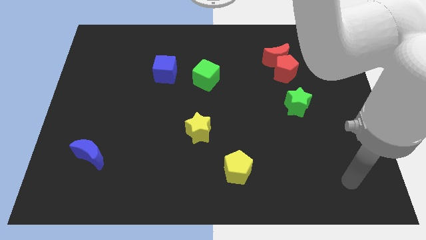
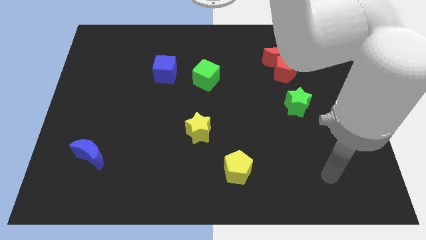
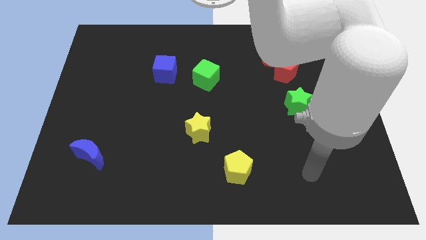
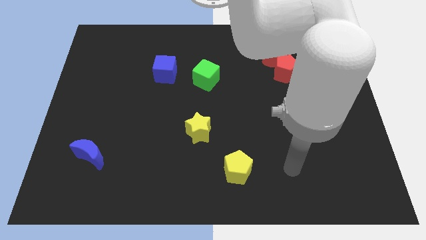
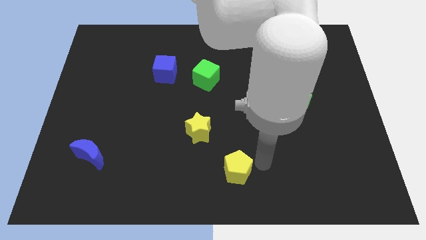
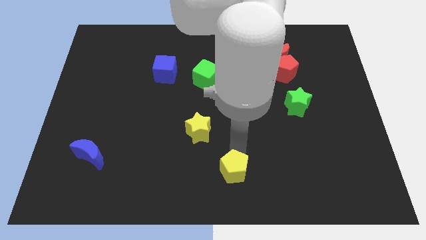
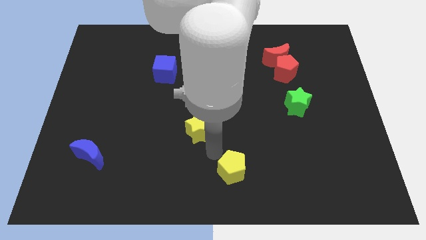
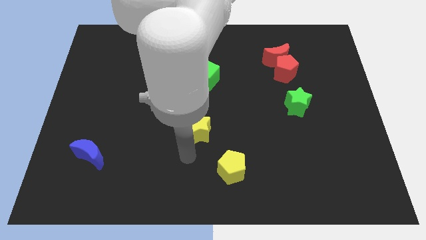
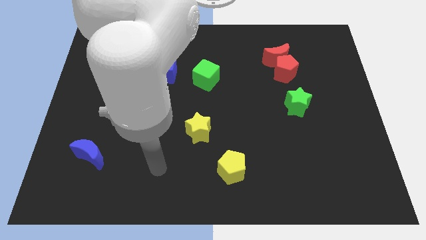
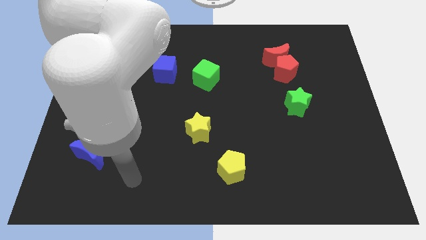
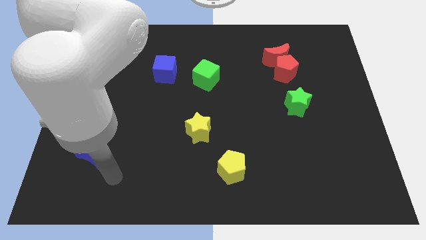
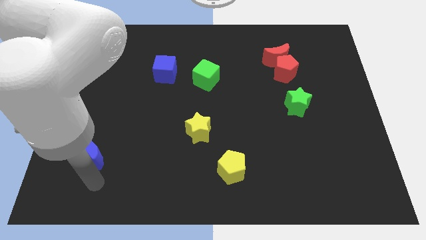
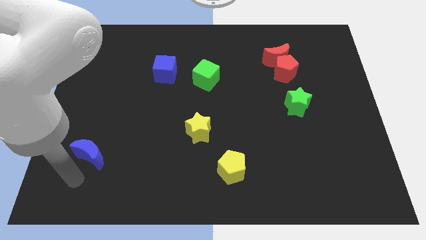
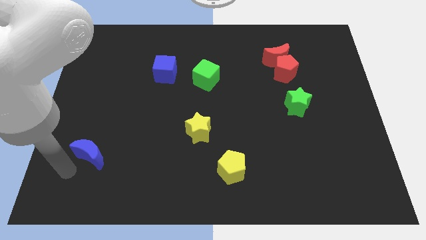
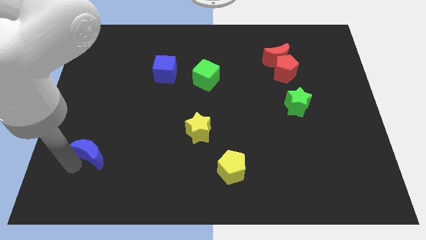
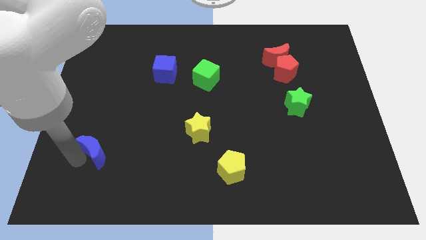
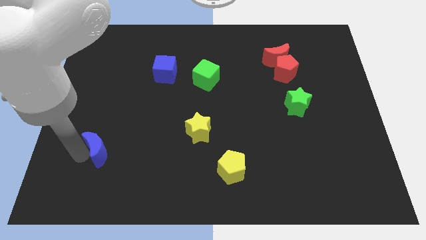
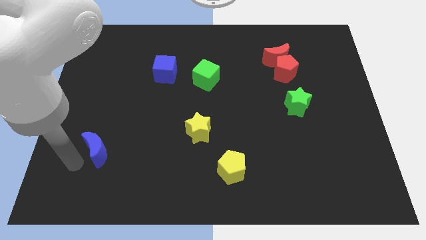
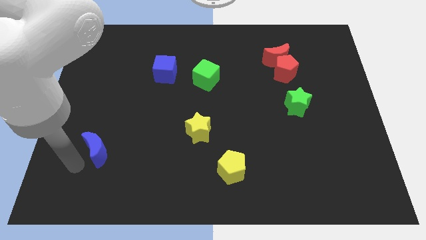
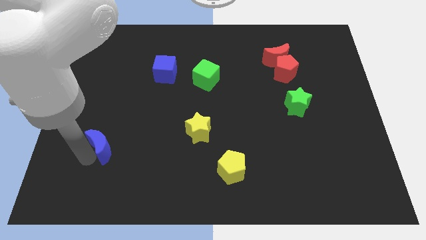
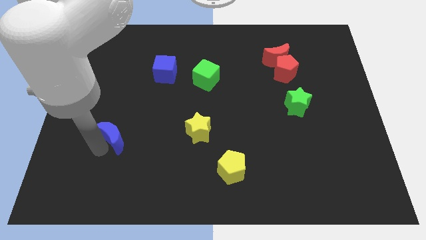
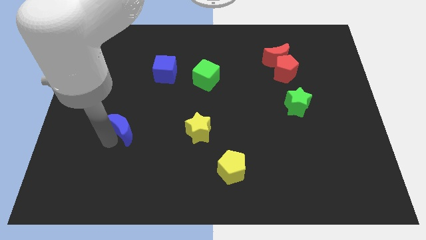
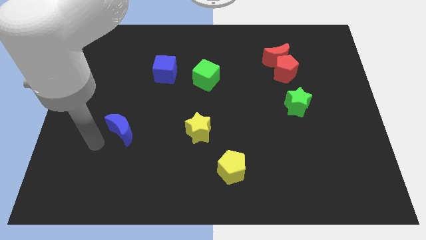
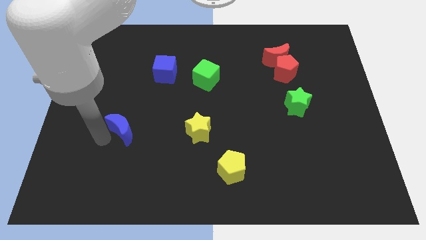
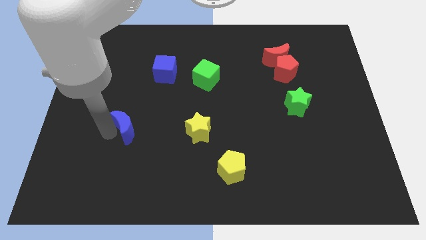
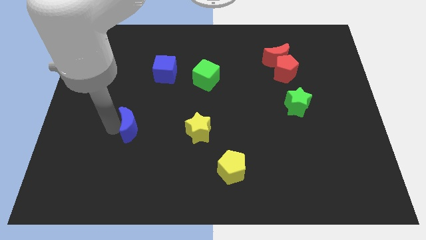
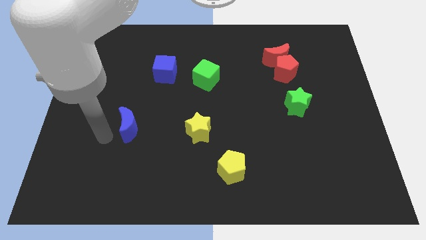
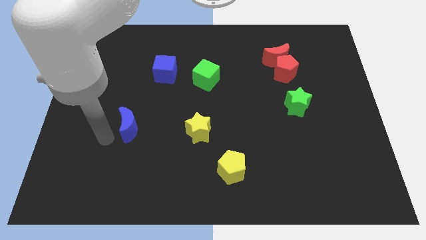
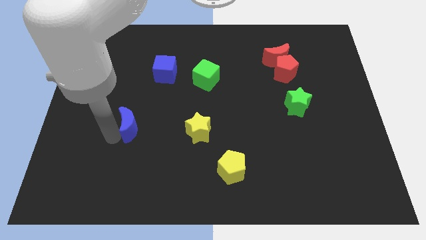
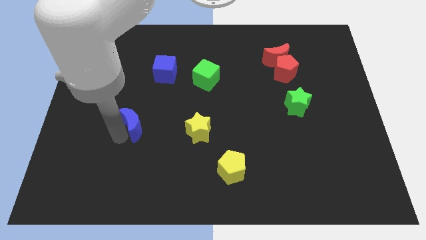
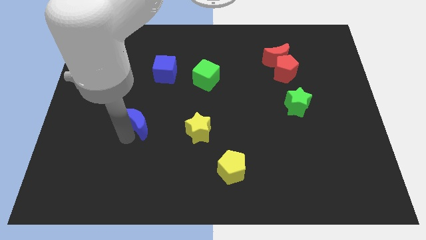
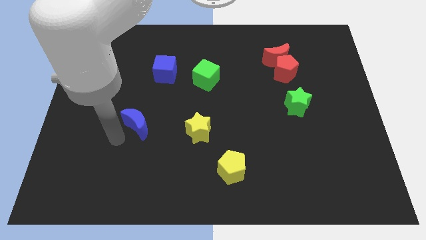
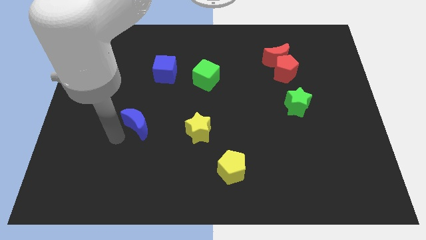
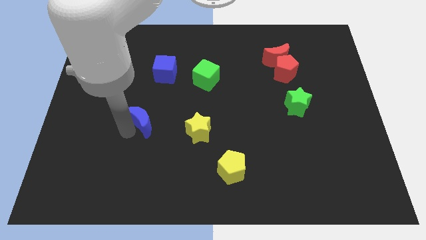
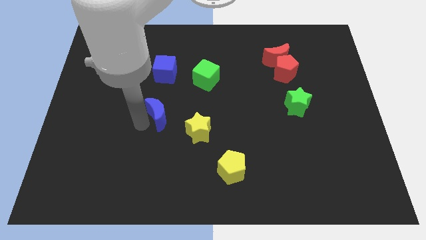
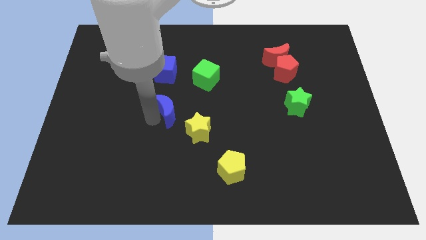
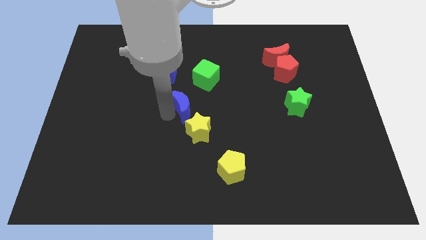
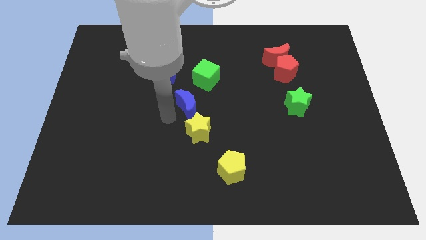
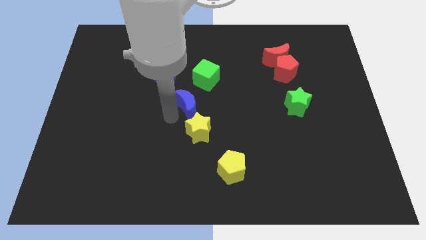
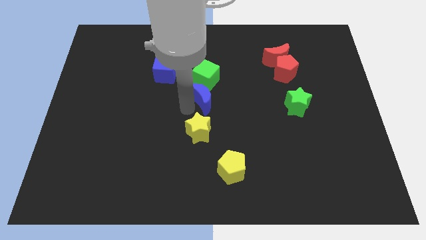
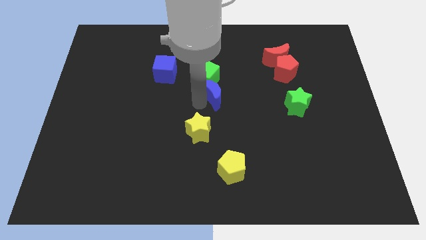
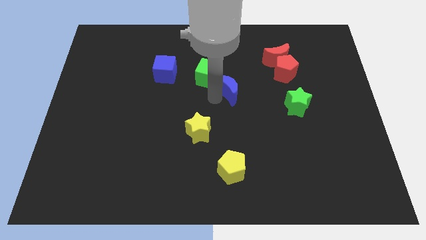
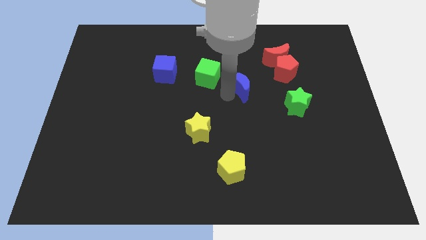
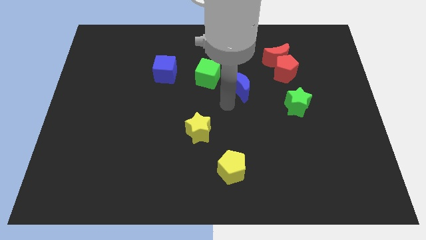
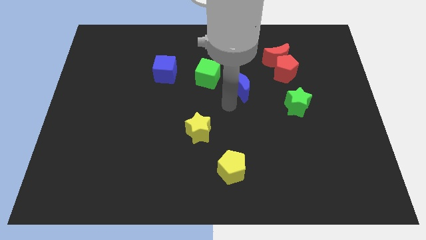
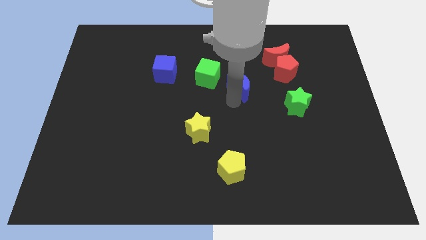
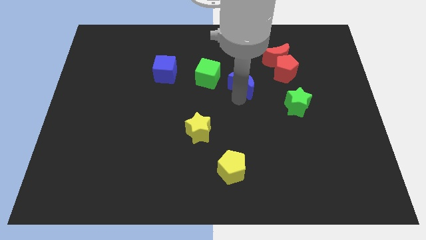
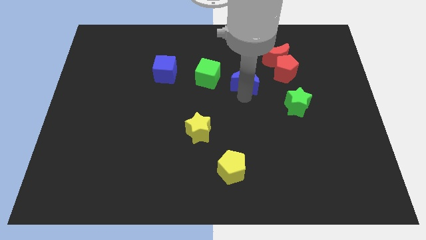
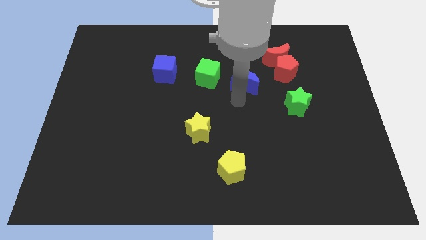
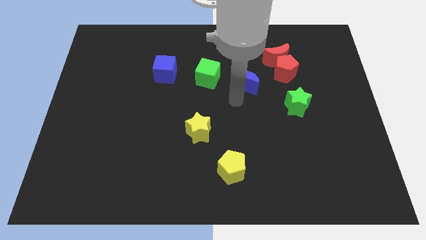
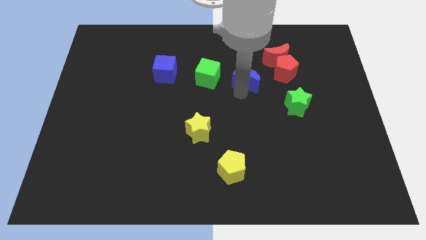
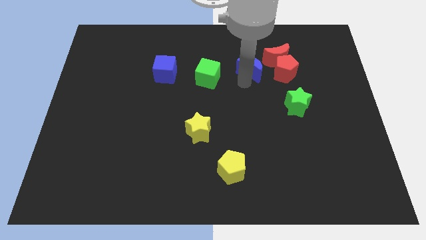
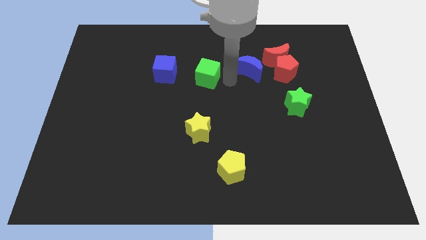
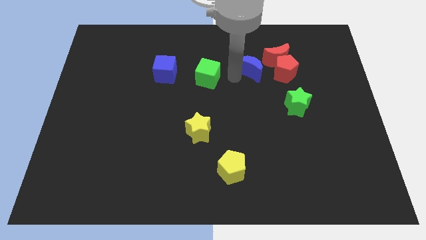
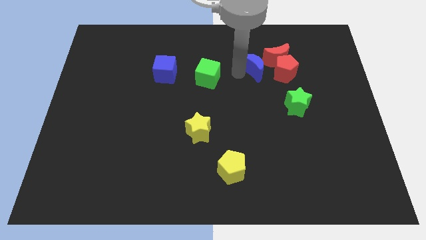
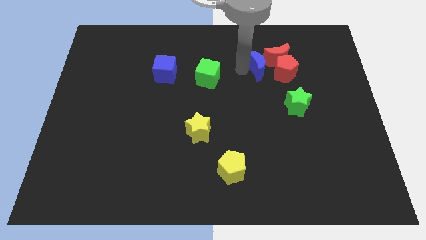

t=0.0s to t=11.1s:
slide the blue moon to the red moon
